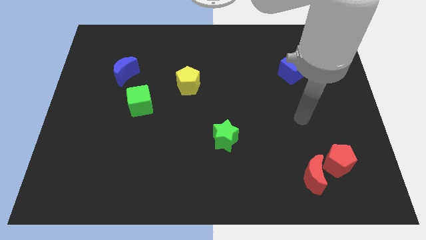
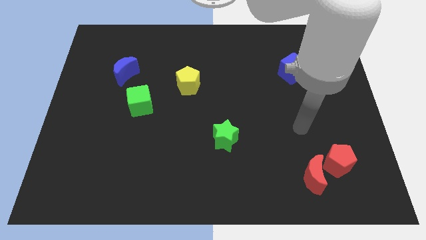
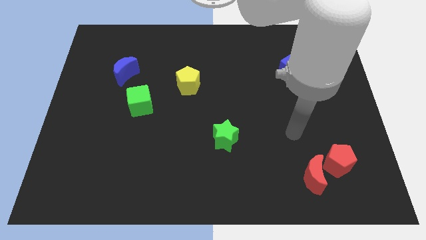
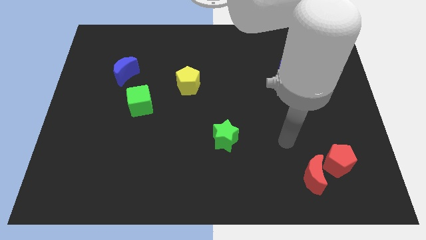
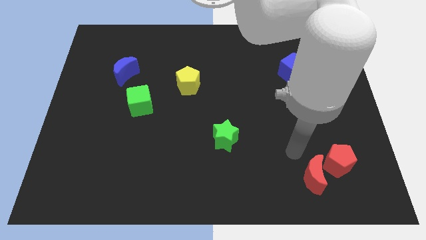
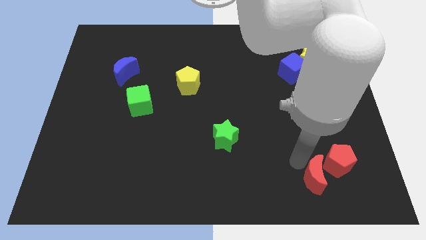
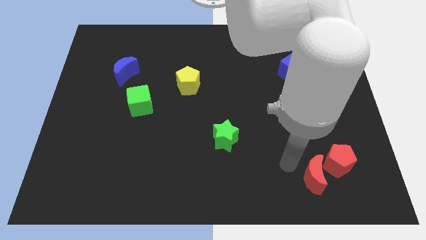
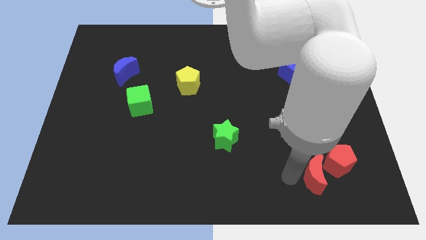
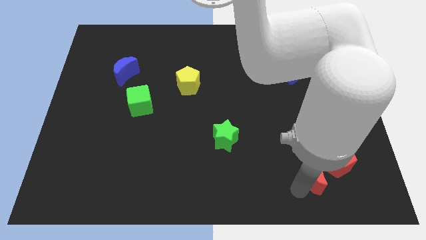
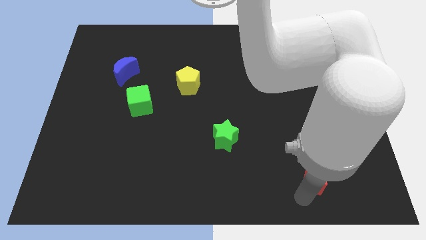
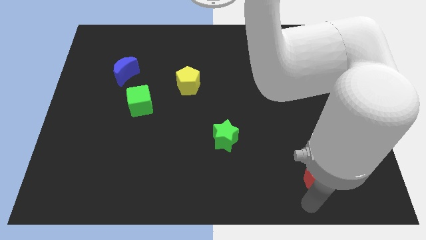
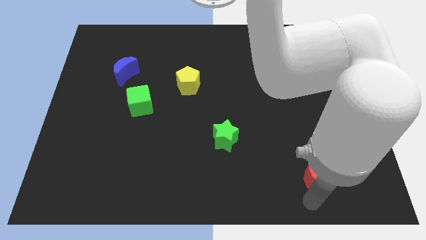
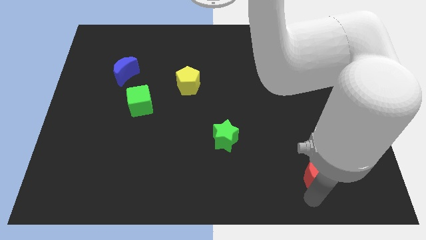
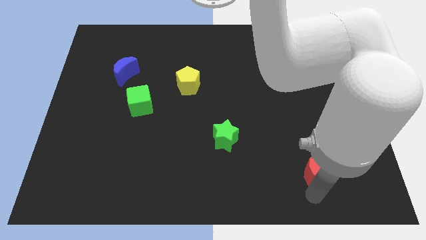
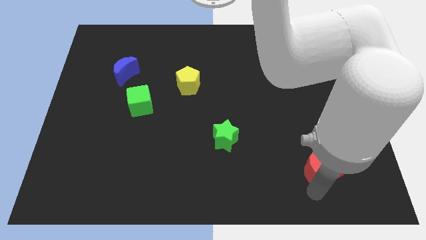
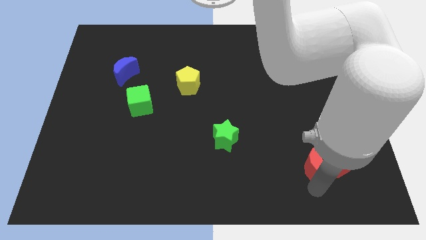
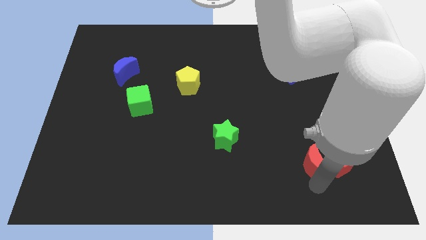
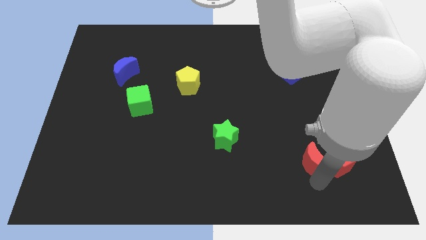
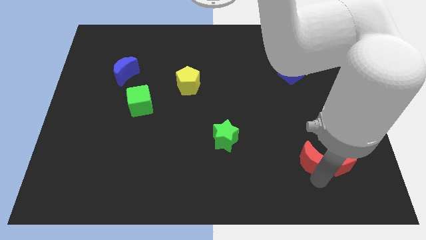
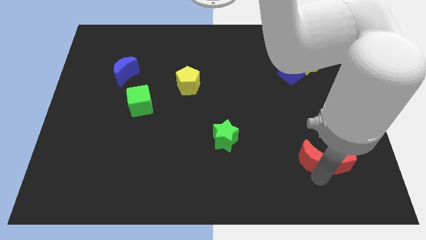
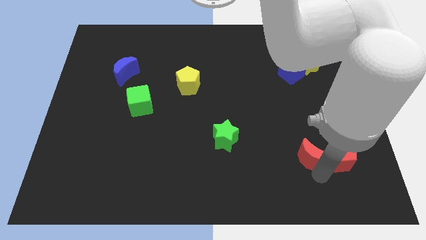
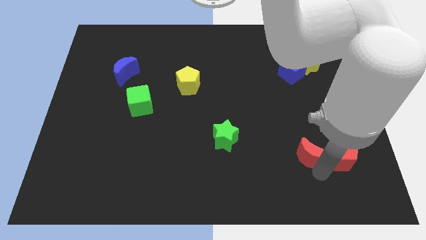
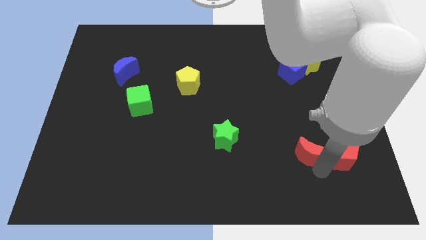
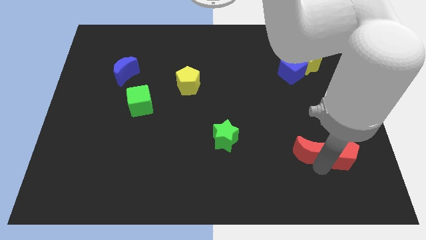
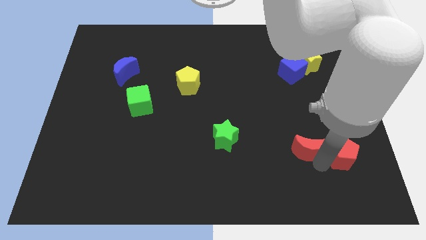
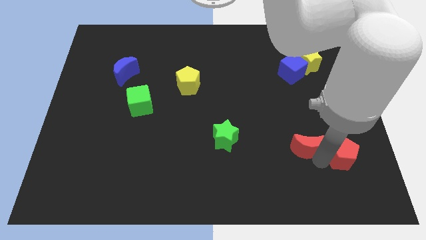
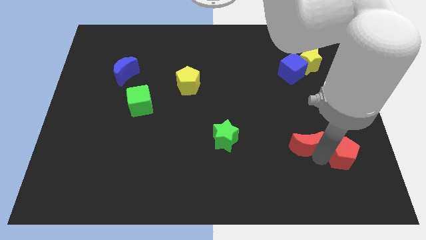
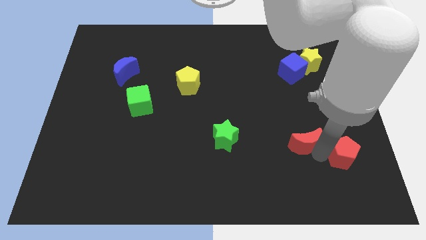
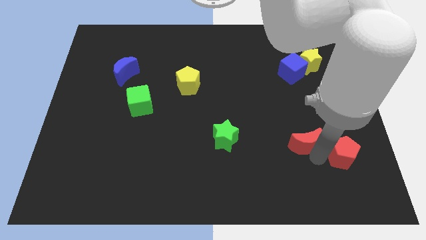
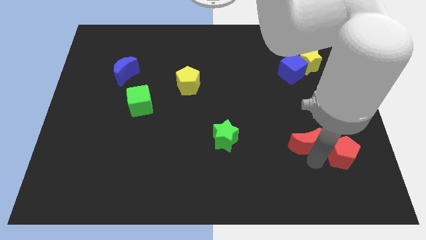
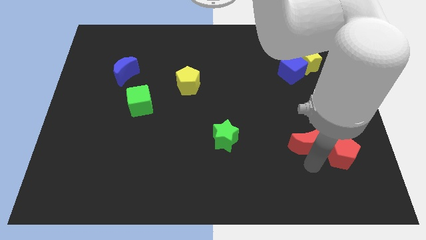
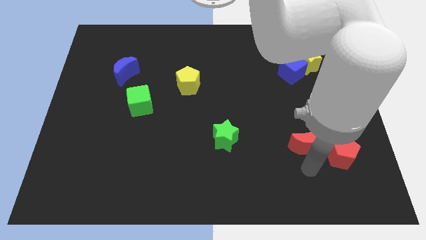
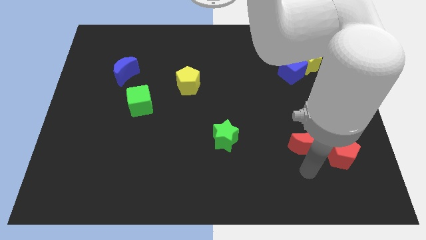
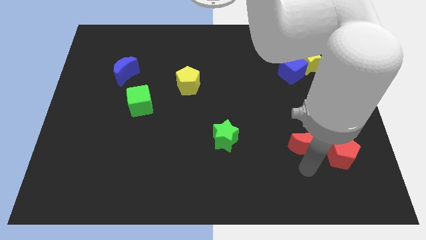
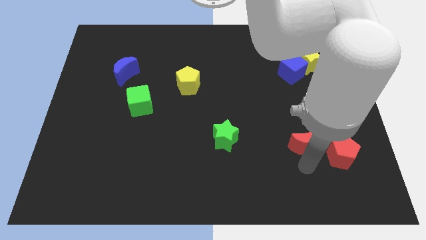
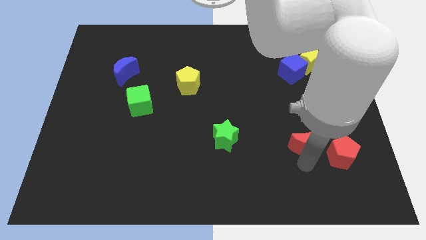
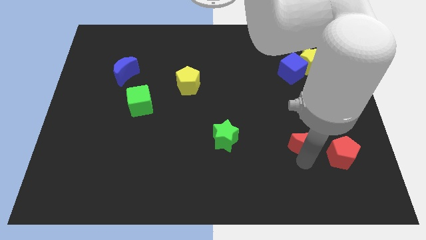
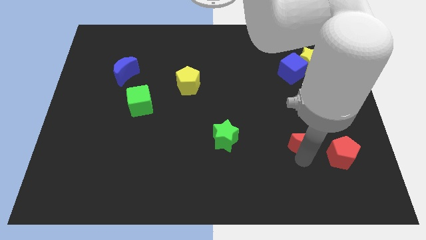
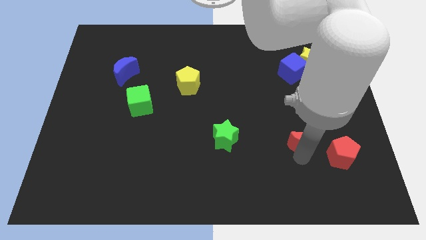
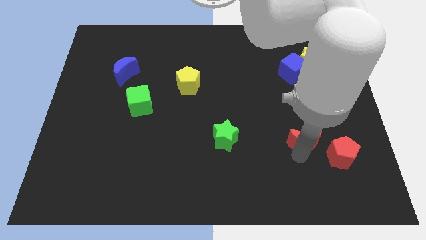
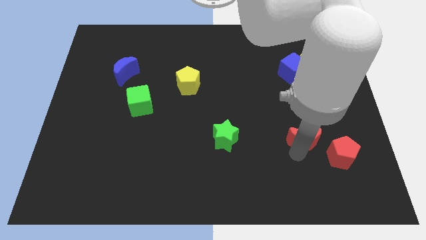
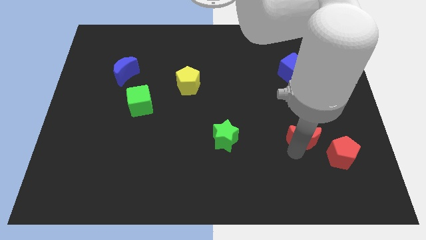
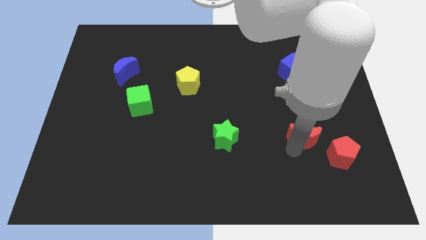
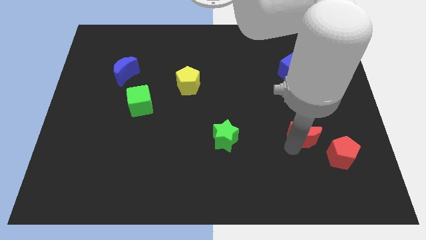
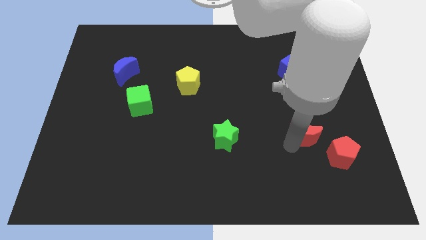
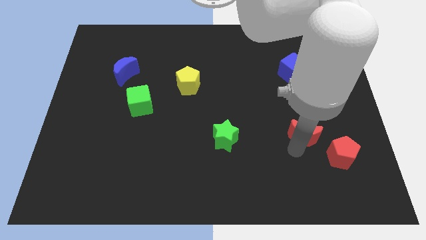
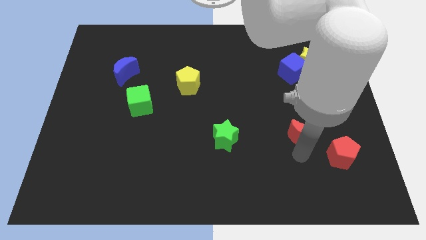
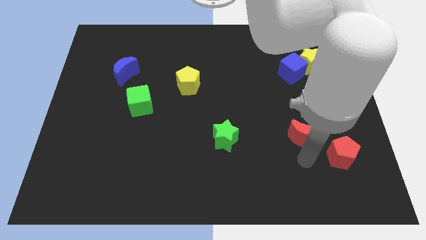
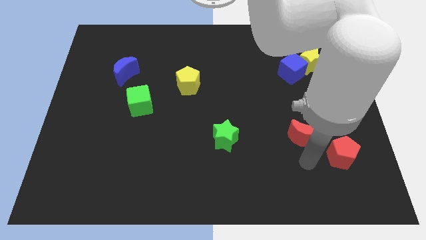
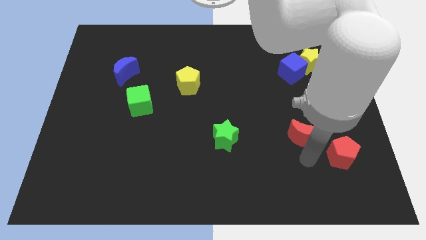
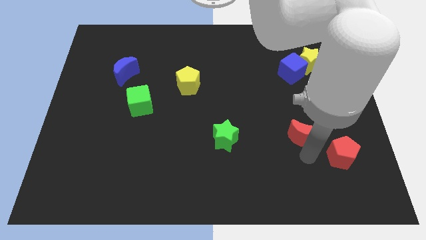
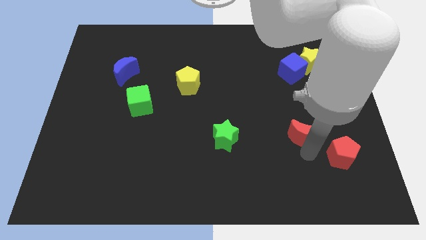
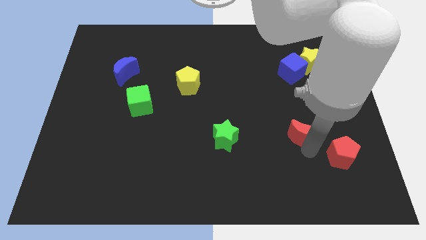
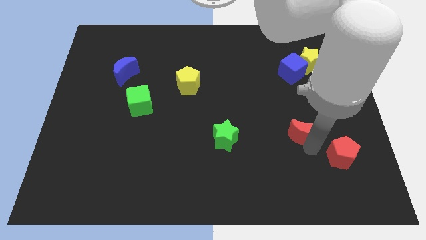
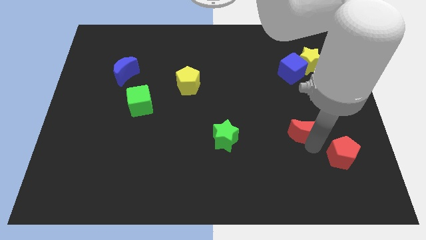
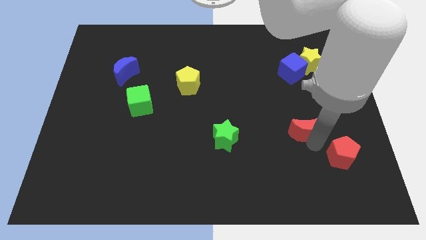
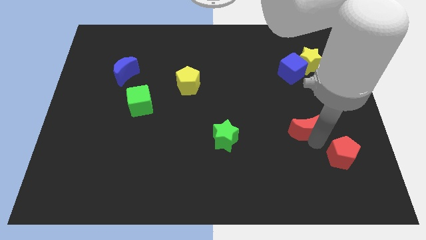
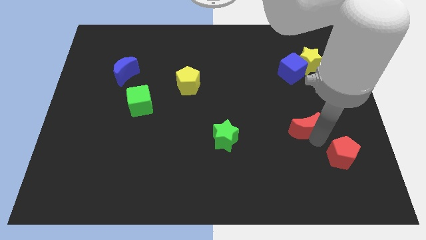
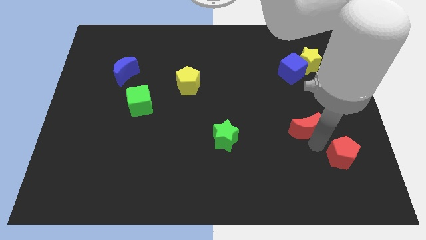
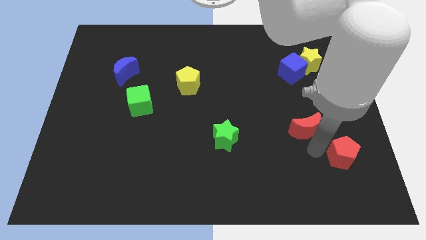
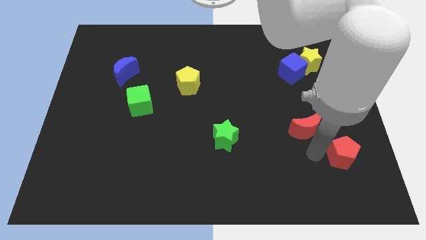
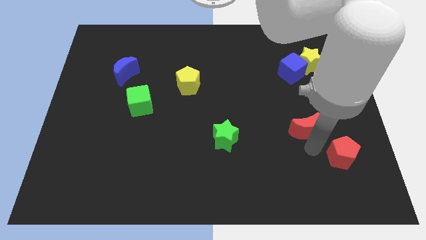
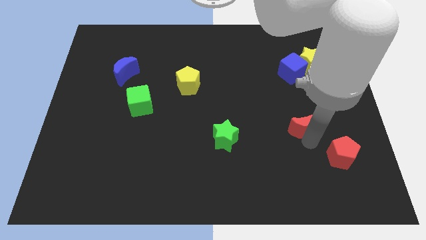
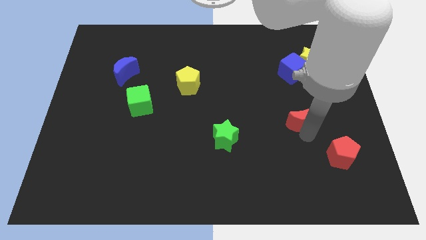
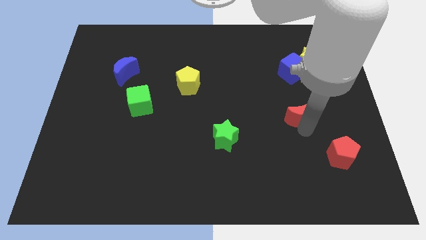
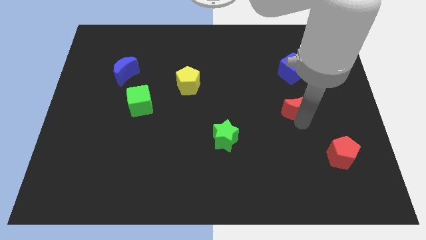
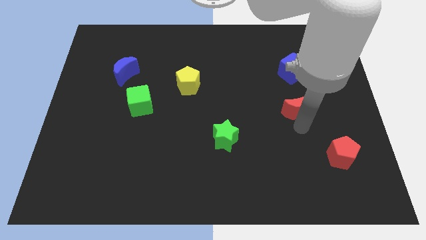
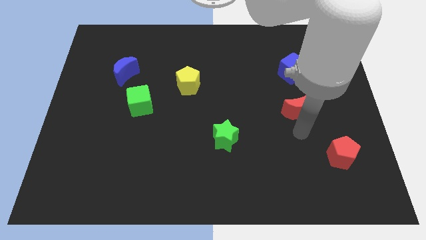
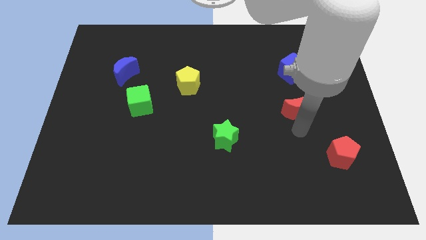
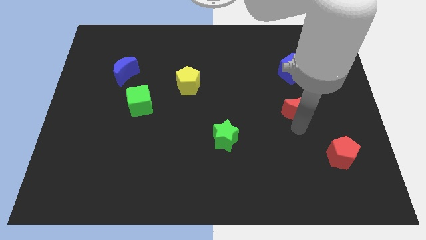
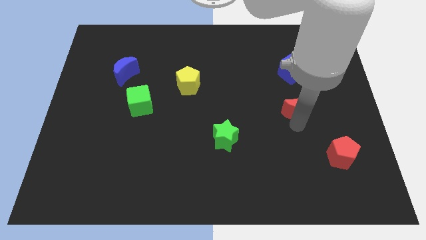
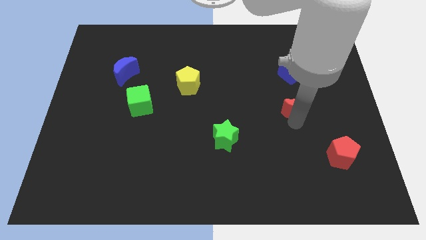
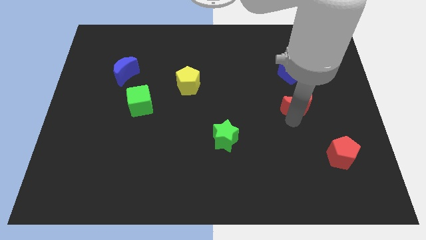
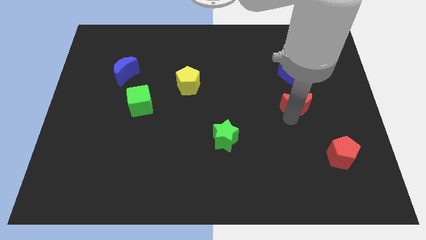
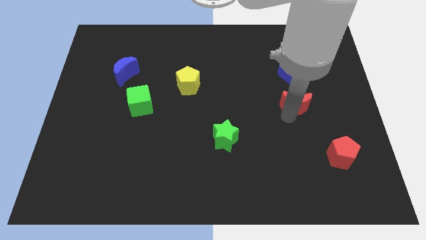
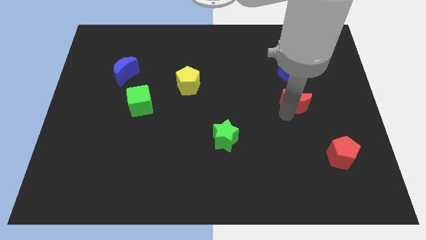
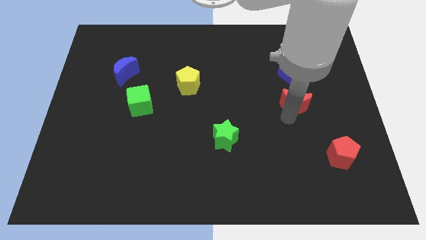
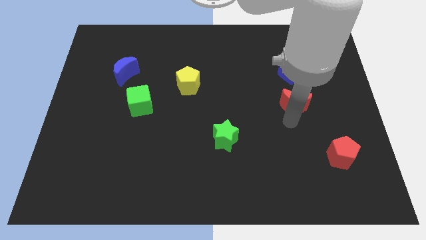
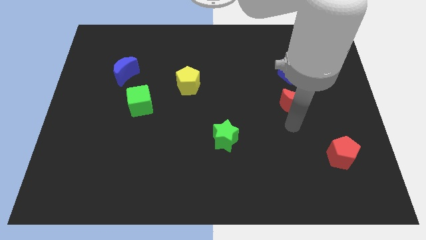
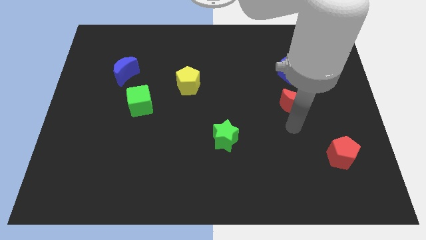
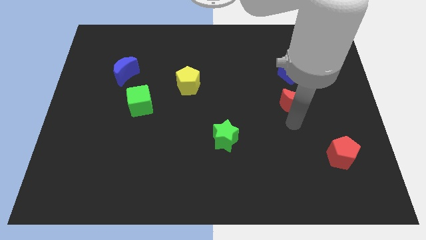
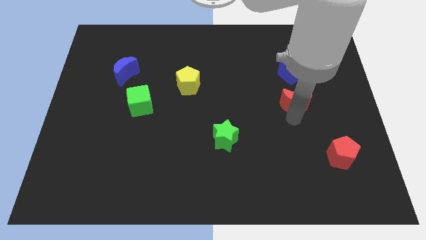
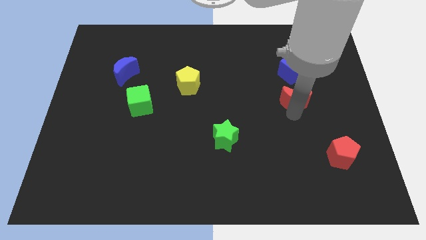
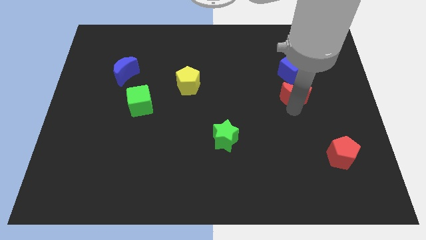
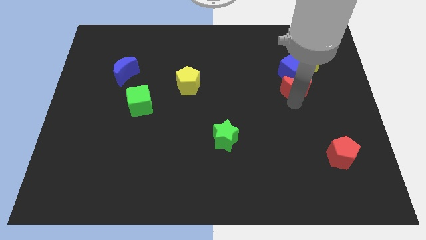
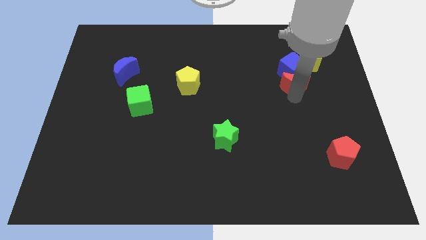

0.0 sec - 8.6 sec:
push the red moon towards the blue cube
